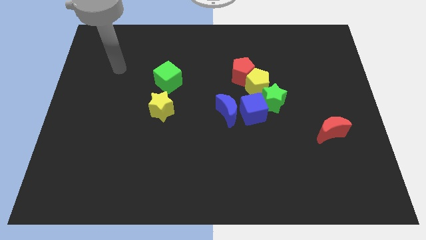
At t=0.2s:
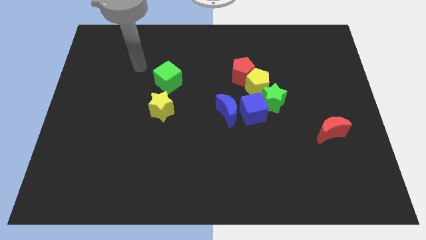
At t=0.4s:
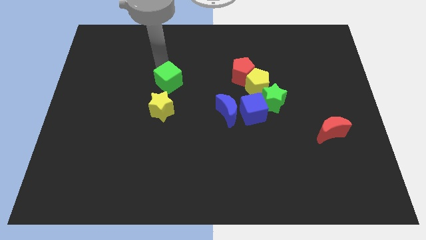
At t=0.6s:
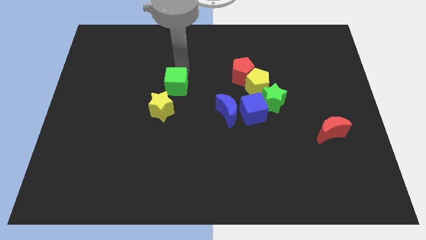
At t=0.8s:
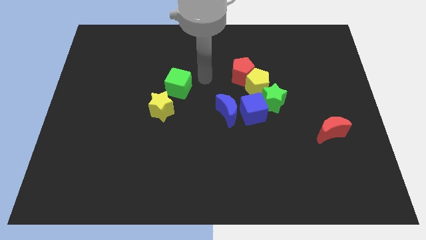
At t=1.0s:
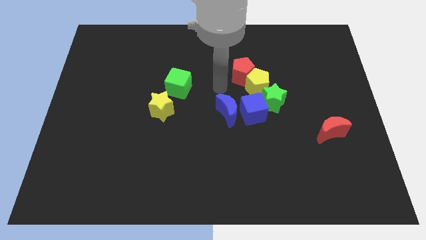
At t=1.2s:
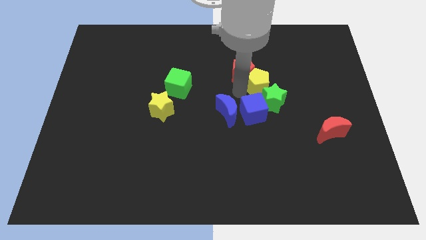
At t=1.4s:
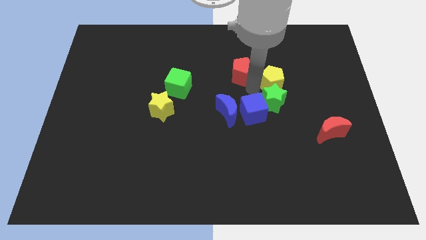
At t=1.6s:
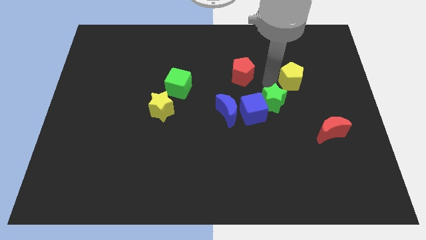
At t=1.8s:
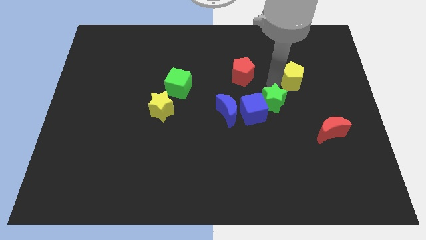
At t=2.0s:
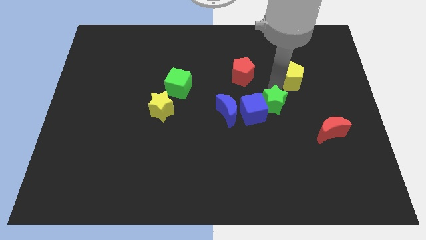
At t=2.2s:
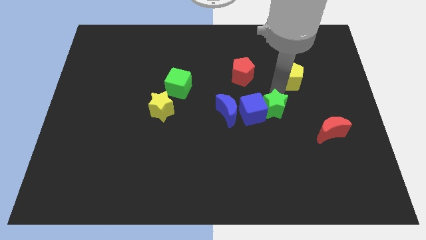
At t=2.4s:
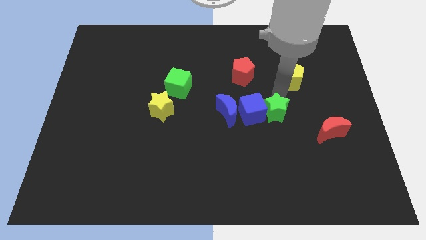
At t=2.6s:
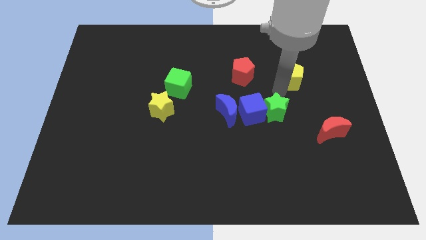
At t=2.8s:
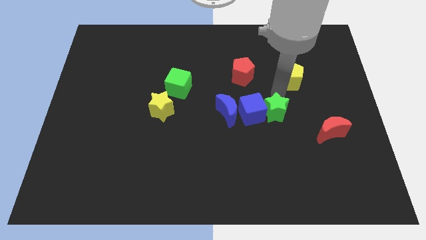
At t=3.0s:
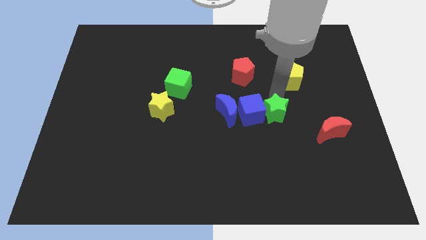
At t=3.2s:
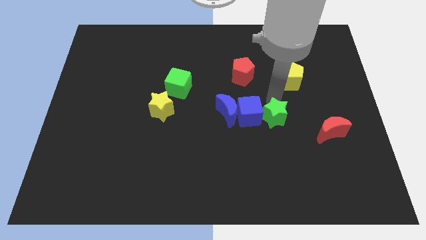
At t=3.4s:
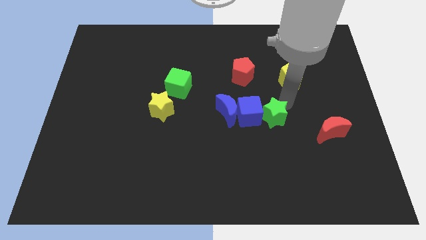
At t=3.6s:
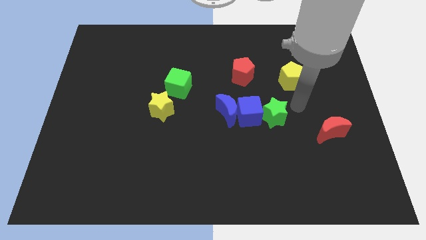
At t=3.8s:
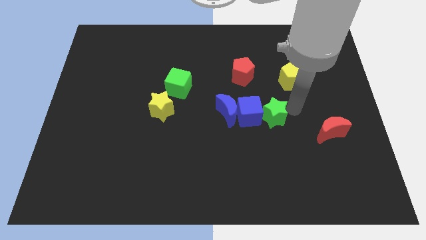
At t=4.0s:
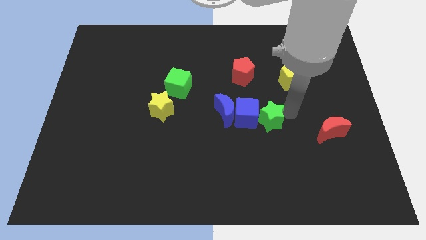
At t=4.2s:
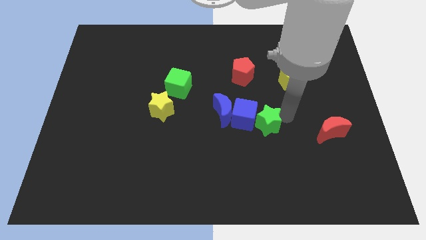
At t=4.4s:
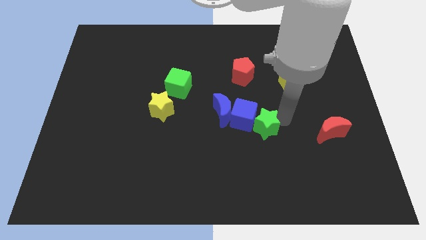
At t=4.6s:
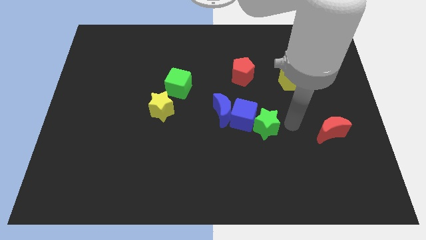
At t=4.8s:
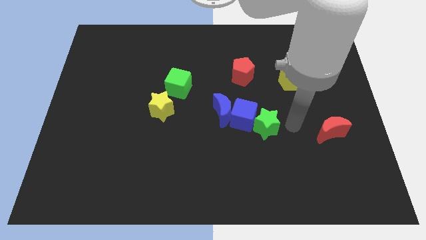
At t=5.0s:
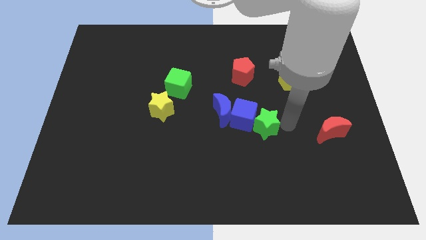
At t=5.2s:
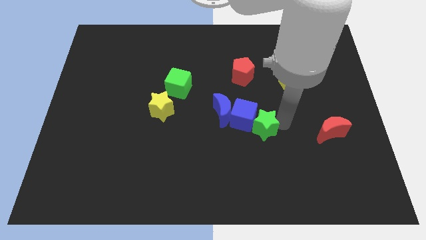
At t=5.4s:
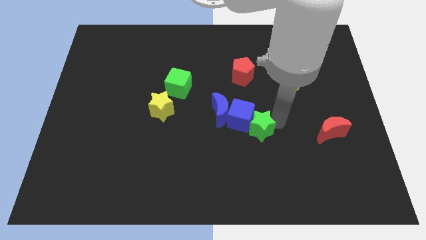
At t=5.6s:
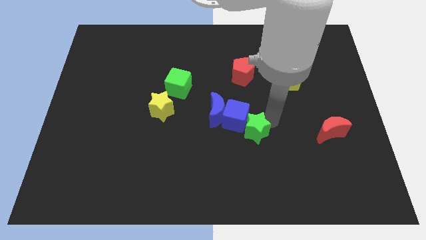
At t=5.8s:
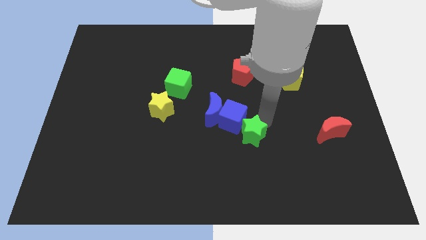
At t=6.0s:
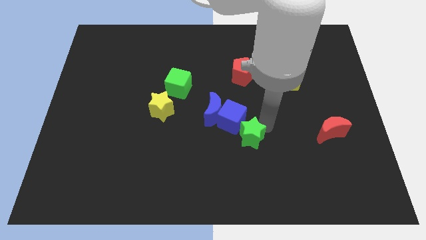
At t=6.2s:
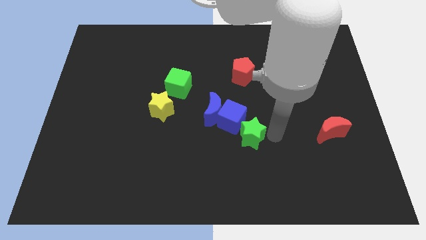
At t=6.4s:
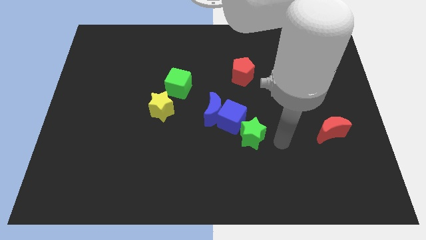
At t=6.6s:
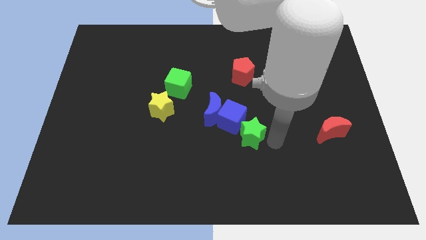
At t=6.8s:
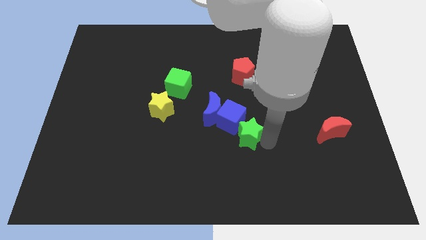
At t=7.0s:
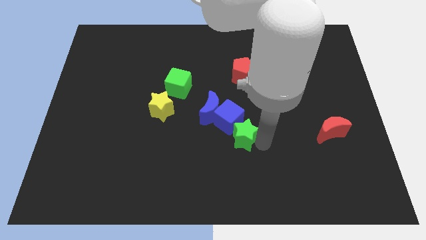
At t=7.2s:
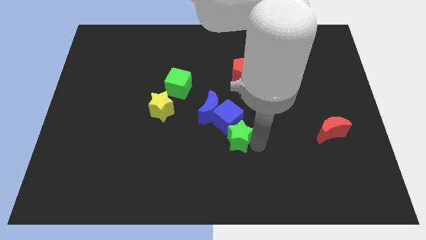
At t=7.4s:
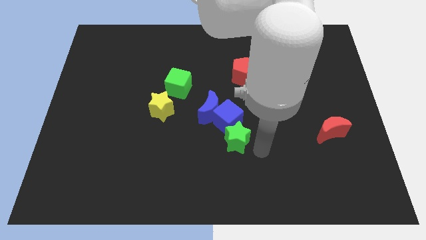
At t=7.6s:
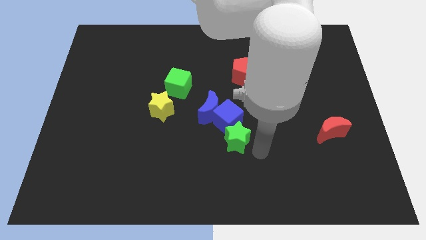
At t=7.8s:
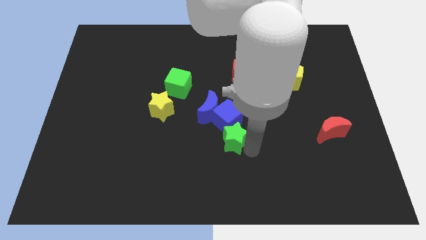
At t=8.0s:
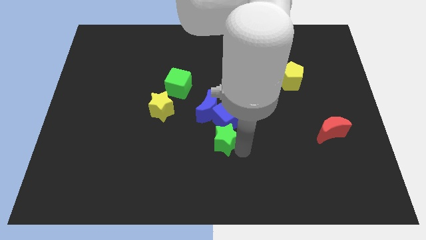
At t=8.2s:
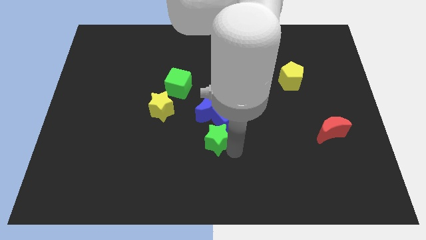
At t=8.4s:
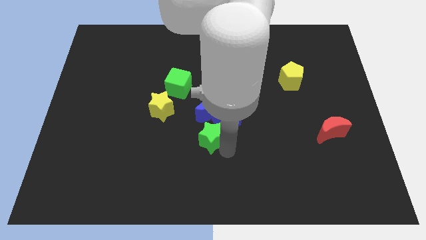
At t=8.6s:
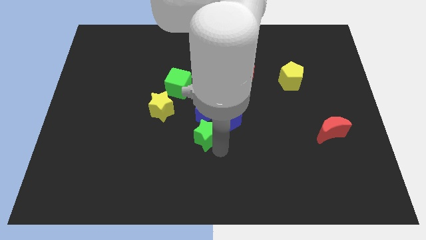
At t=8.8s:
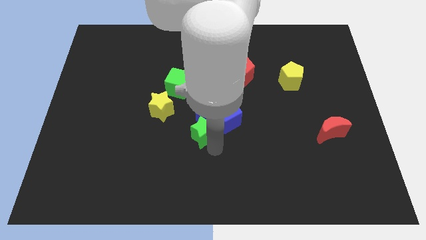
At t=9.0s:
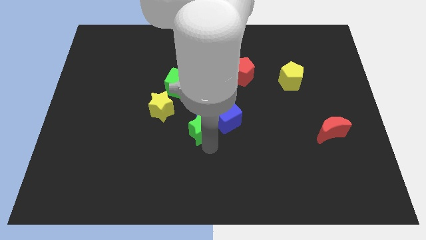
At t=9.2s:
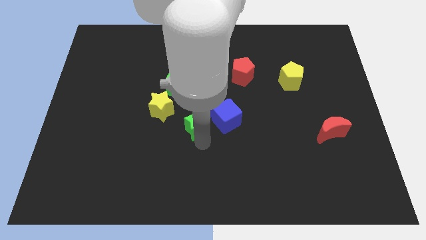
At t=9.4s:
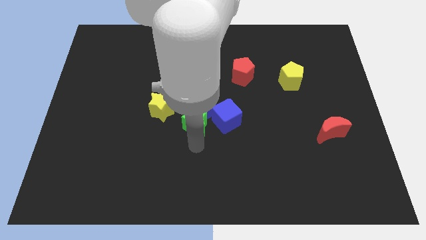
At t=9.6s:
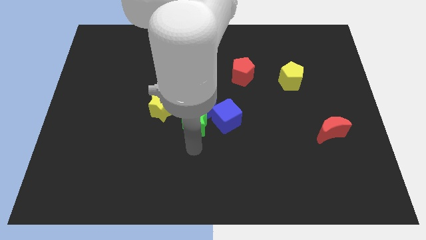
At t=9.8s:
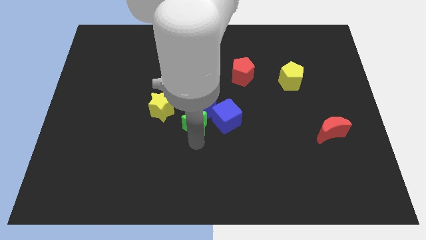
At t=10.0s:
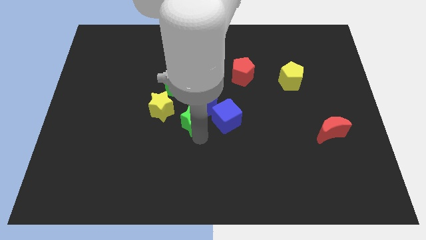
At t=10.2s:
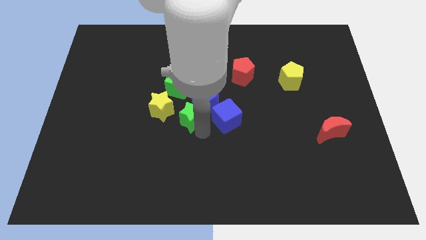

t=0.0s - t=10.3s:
push the green star diagonally down and to the right of the green cube

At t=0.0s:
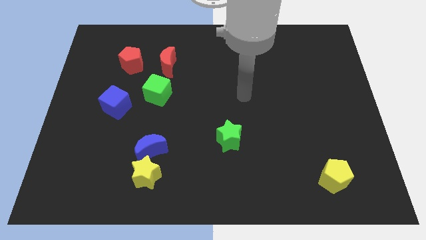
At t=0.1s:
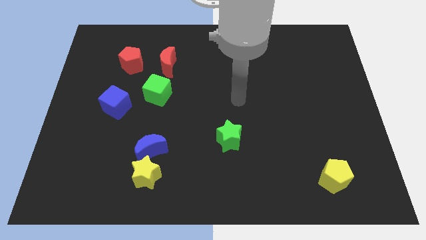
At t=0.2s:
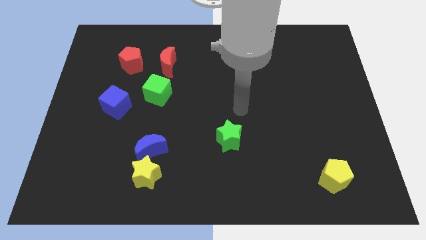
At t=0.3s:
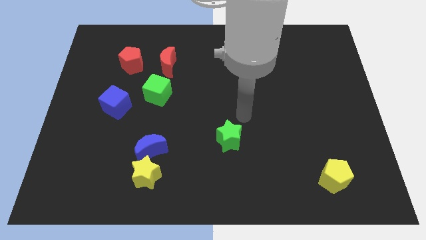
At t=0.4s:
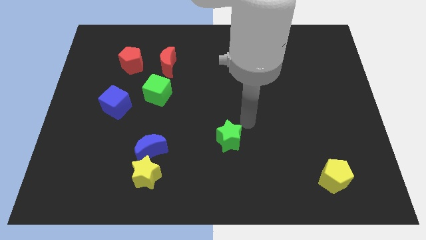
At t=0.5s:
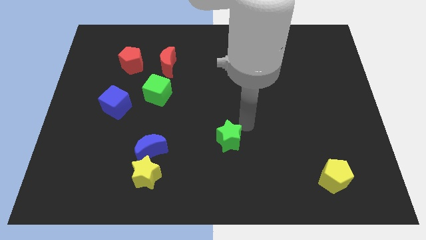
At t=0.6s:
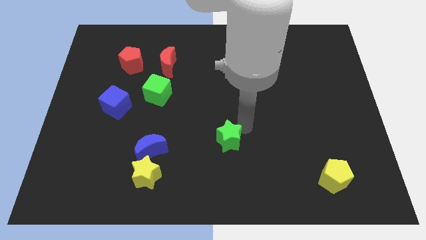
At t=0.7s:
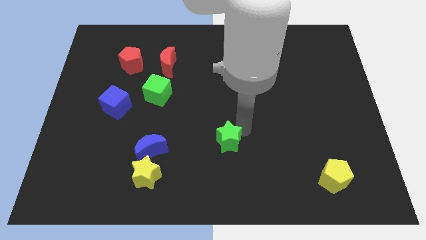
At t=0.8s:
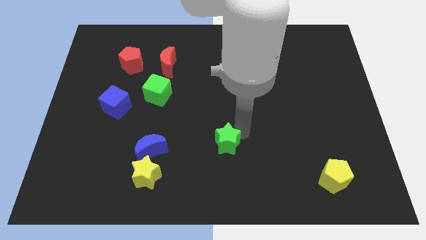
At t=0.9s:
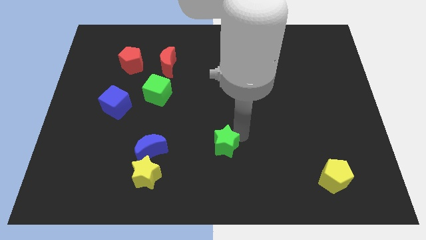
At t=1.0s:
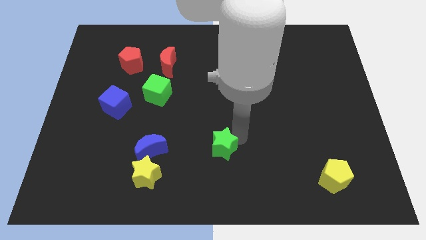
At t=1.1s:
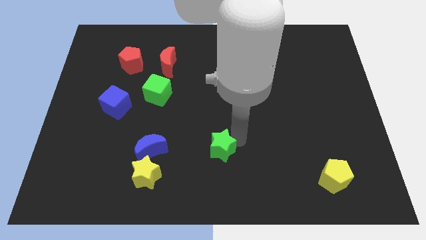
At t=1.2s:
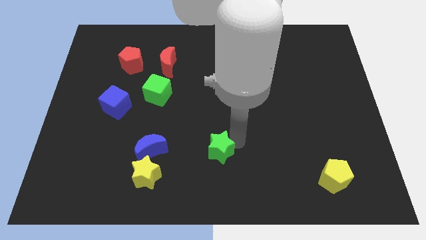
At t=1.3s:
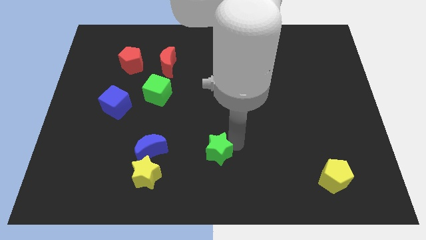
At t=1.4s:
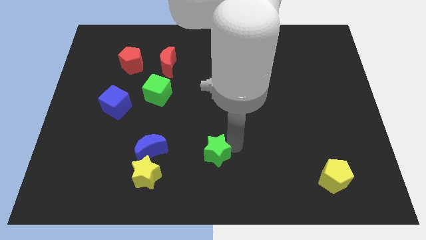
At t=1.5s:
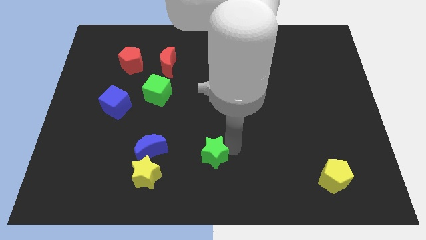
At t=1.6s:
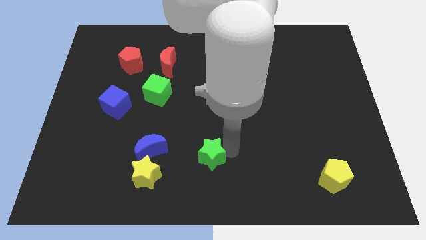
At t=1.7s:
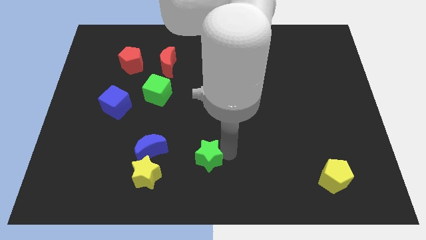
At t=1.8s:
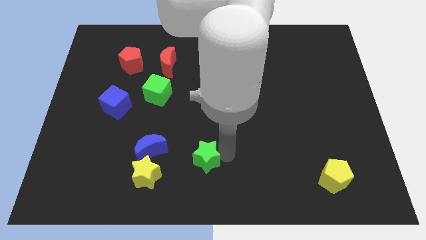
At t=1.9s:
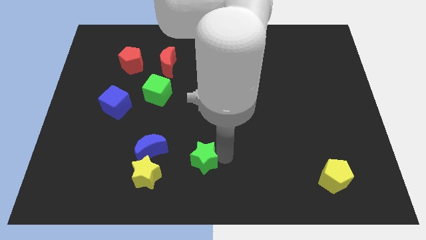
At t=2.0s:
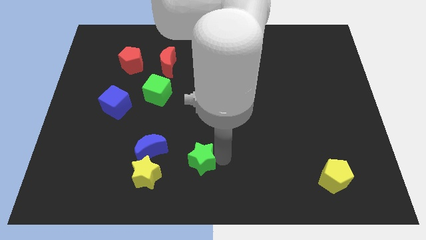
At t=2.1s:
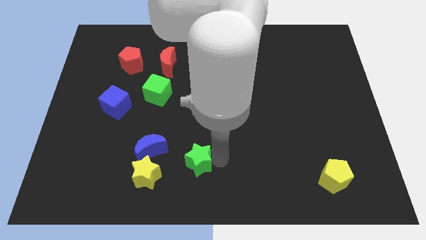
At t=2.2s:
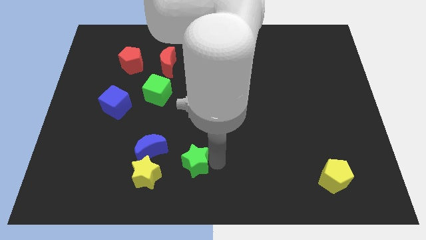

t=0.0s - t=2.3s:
slide the green star diagonally down and to the right of the blue moon
